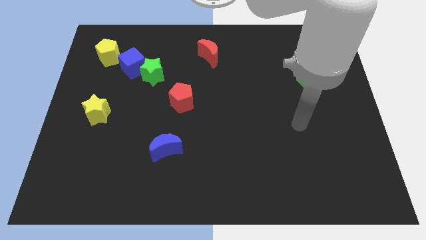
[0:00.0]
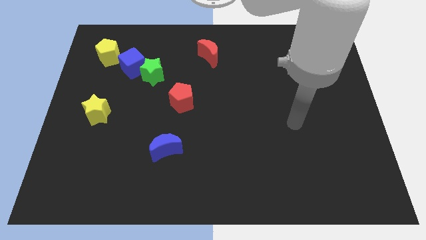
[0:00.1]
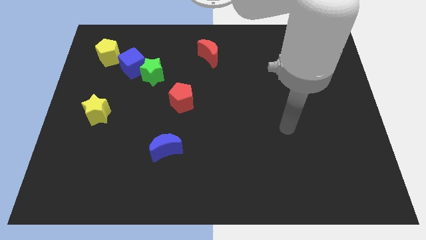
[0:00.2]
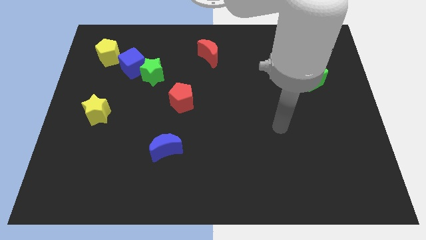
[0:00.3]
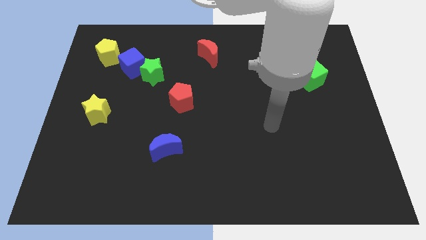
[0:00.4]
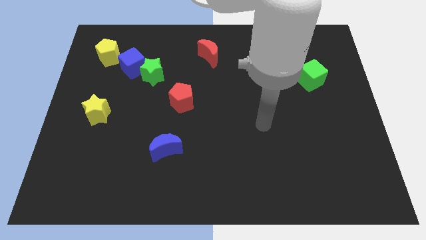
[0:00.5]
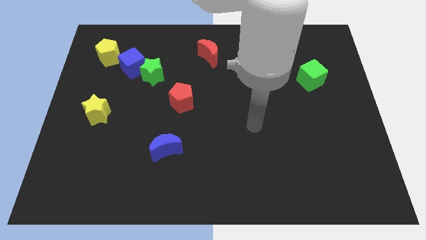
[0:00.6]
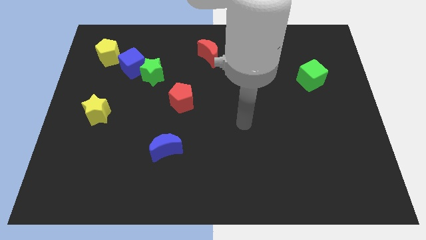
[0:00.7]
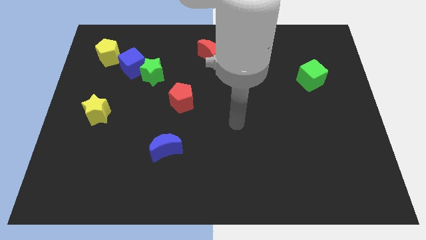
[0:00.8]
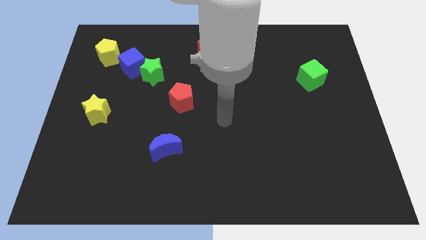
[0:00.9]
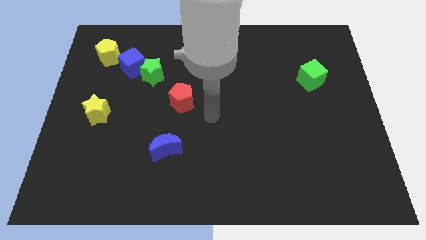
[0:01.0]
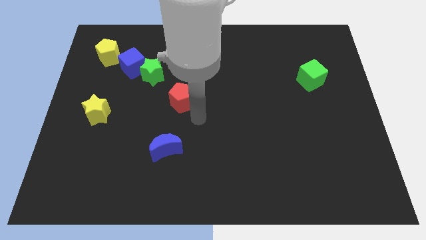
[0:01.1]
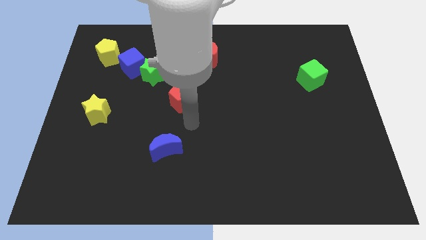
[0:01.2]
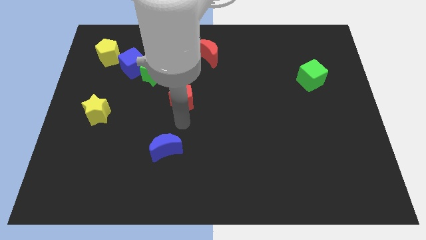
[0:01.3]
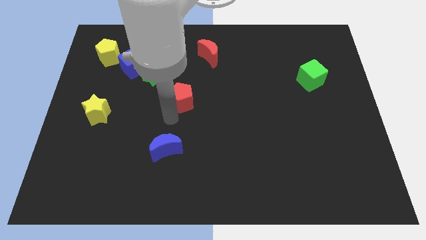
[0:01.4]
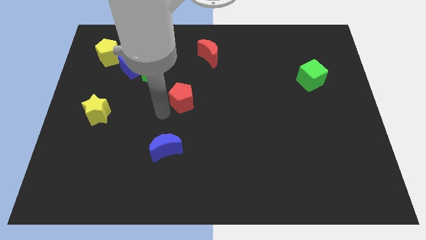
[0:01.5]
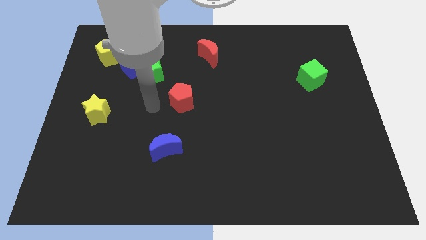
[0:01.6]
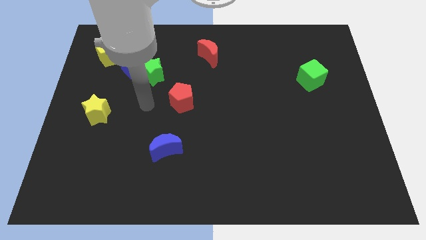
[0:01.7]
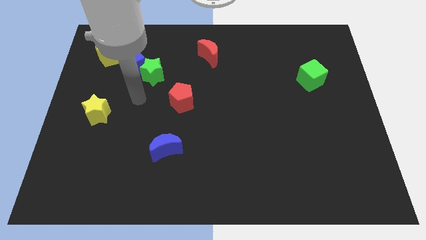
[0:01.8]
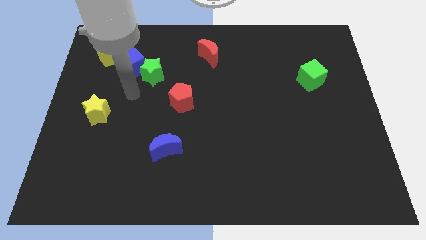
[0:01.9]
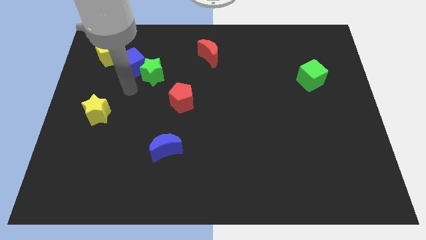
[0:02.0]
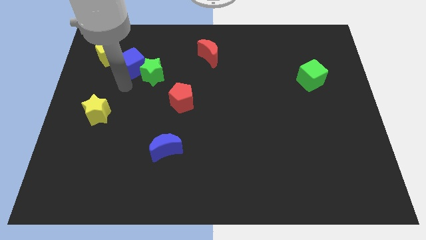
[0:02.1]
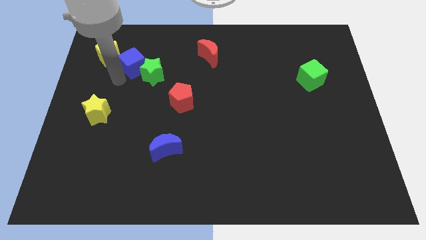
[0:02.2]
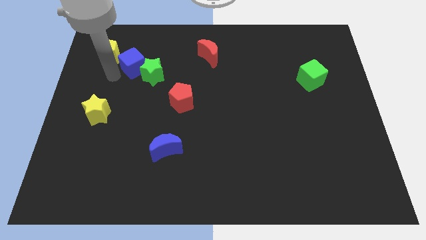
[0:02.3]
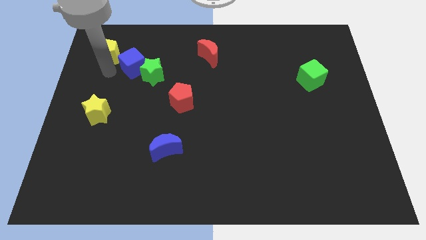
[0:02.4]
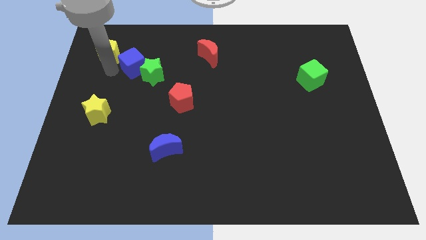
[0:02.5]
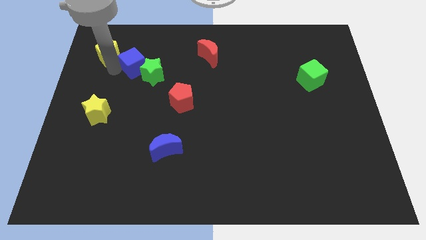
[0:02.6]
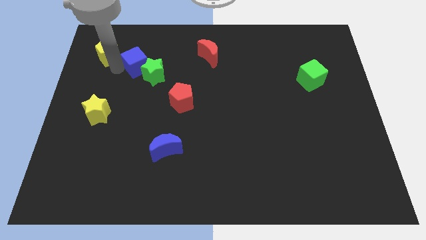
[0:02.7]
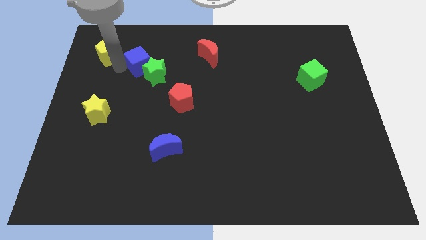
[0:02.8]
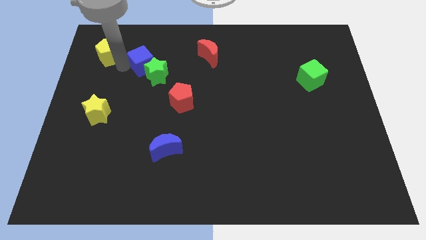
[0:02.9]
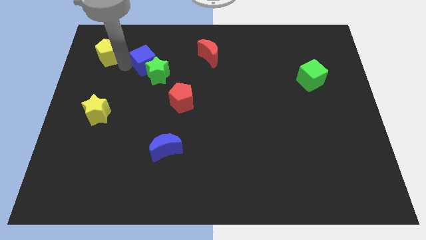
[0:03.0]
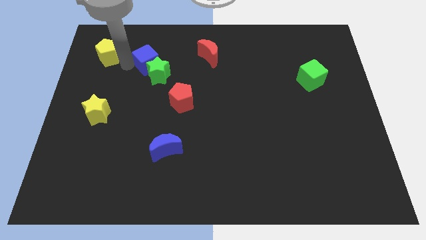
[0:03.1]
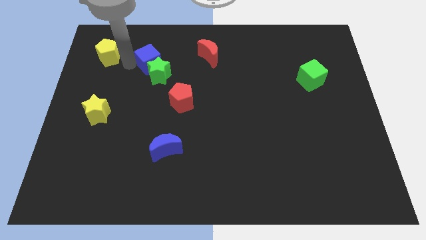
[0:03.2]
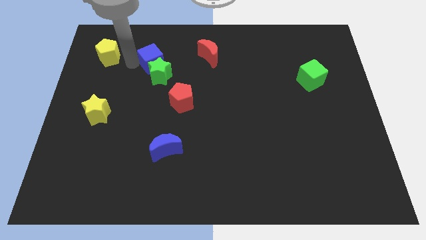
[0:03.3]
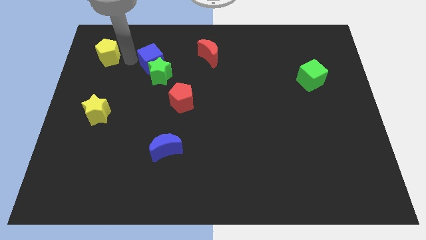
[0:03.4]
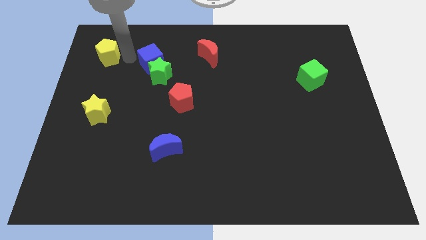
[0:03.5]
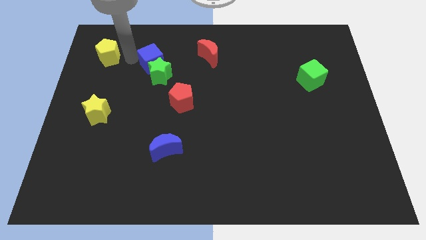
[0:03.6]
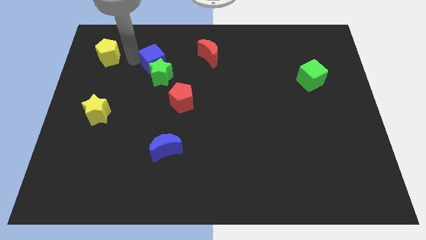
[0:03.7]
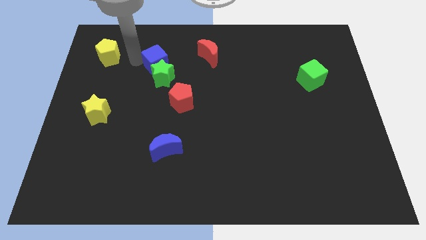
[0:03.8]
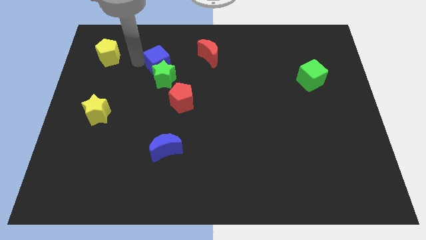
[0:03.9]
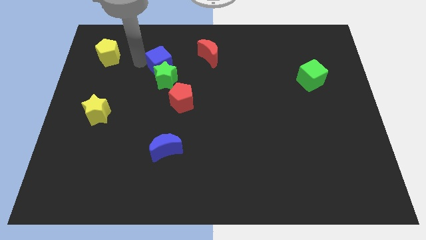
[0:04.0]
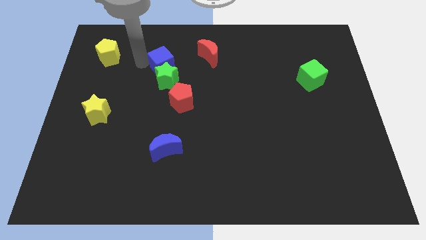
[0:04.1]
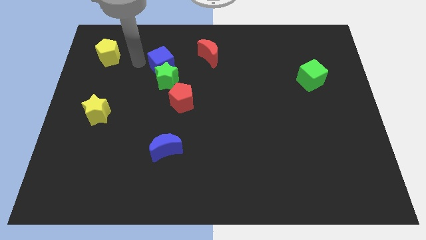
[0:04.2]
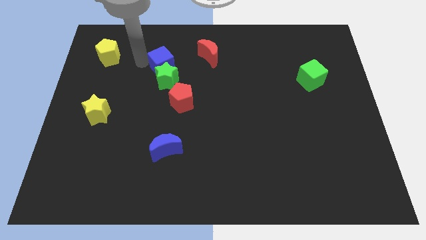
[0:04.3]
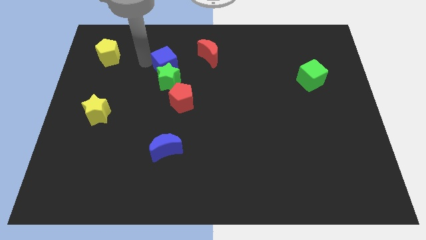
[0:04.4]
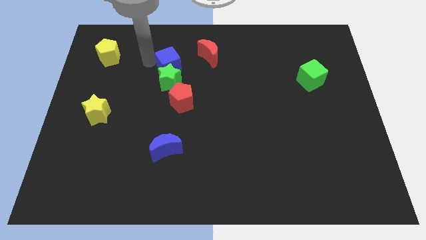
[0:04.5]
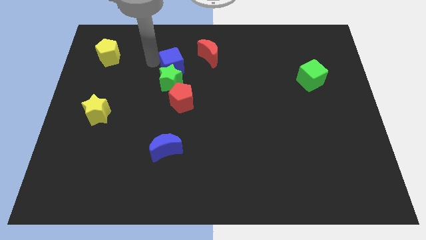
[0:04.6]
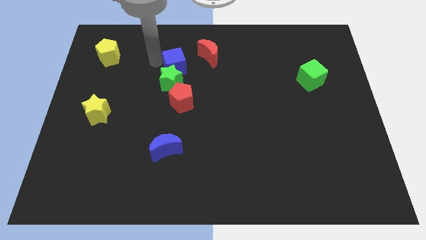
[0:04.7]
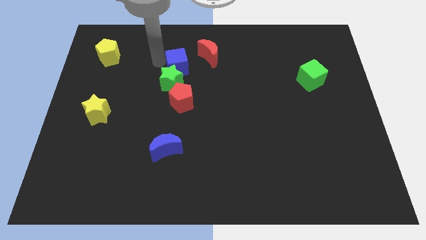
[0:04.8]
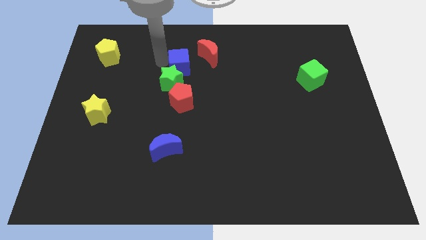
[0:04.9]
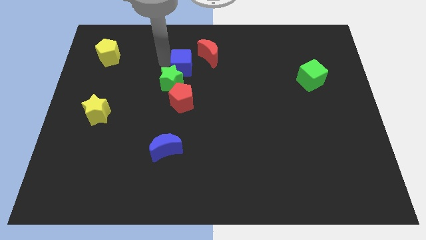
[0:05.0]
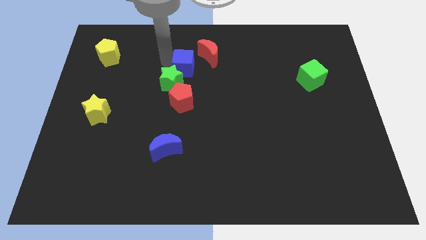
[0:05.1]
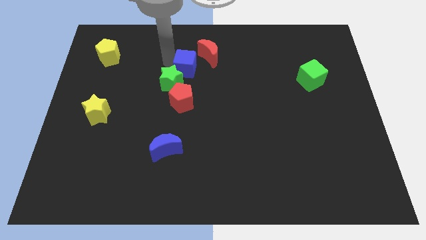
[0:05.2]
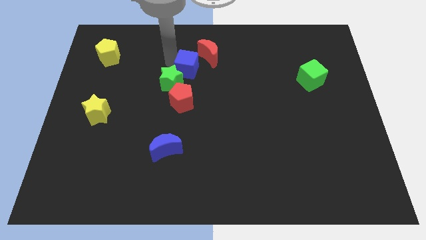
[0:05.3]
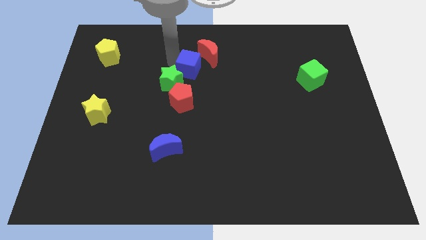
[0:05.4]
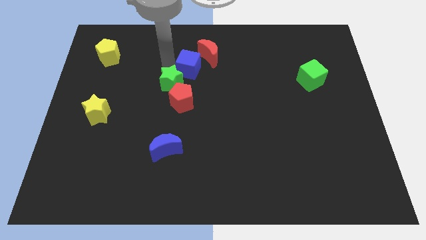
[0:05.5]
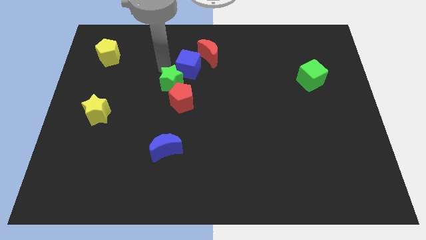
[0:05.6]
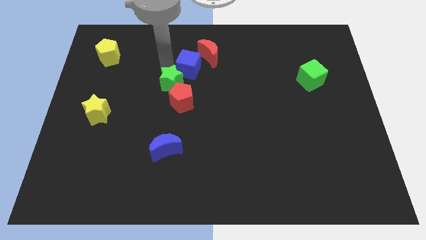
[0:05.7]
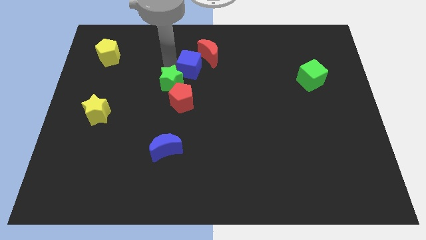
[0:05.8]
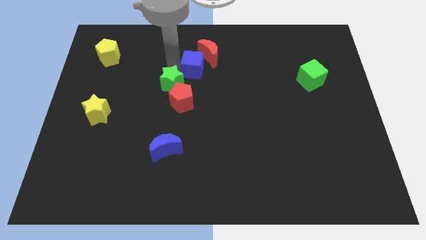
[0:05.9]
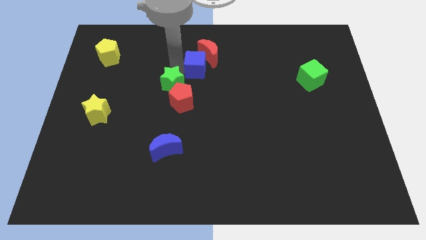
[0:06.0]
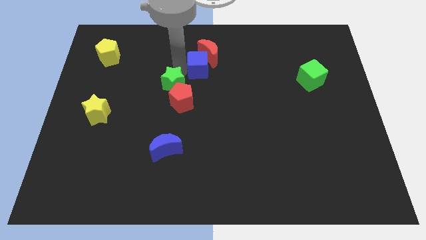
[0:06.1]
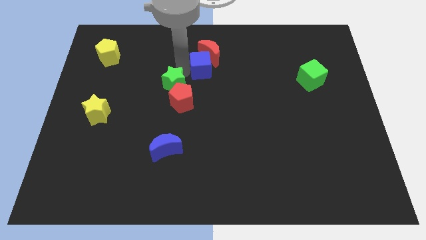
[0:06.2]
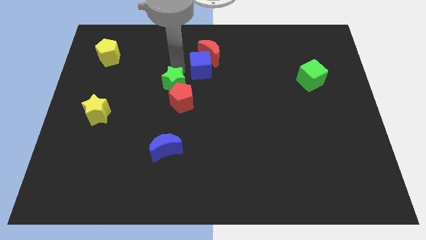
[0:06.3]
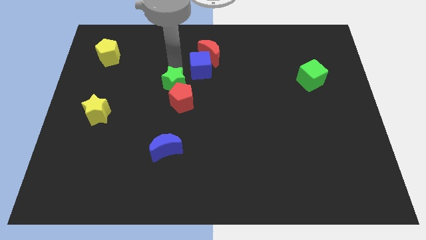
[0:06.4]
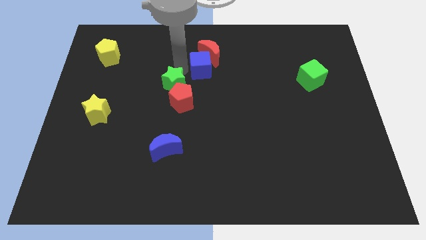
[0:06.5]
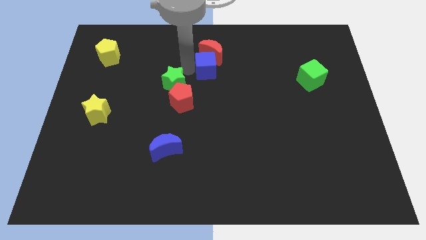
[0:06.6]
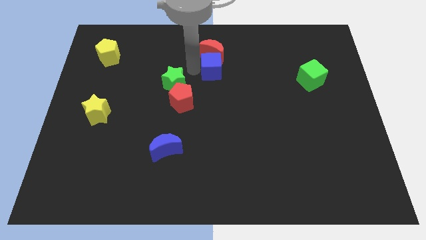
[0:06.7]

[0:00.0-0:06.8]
slide the blue cube right

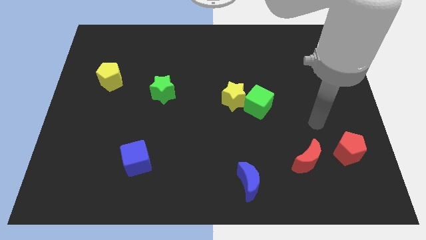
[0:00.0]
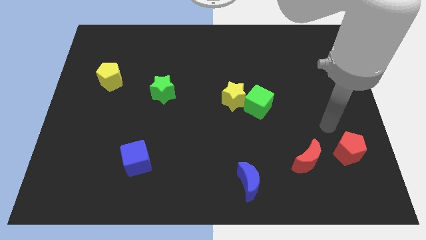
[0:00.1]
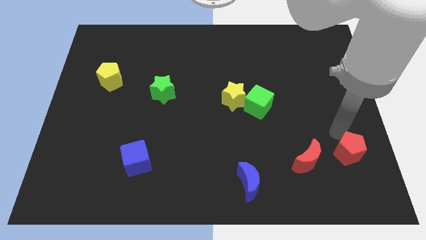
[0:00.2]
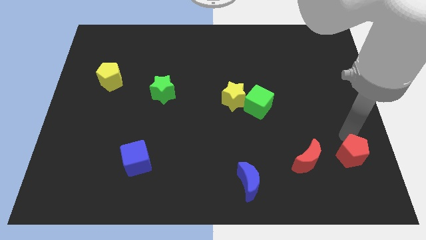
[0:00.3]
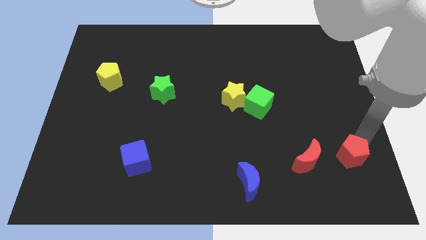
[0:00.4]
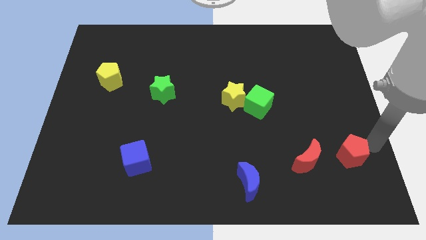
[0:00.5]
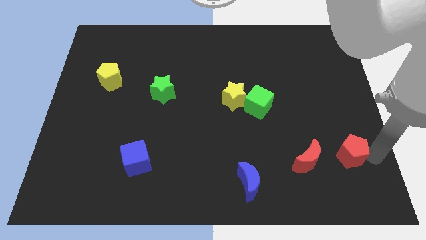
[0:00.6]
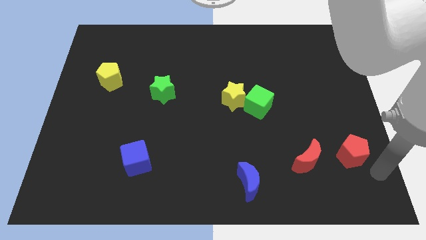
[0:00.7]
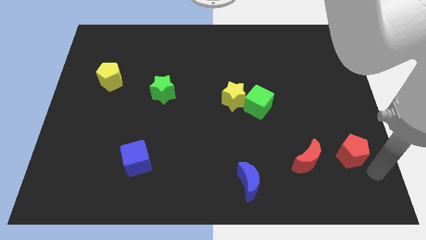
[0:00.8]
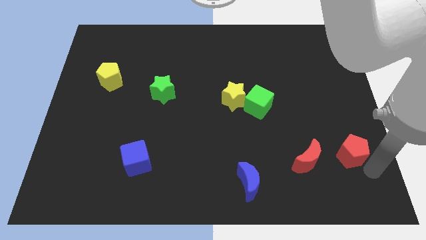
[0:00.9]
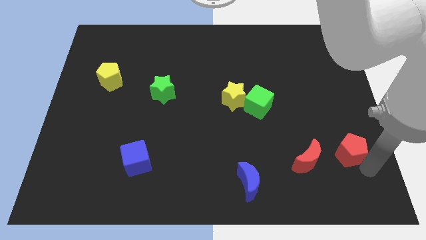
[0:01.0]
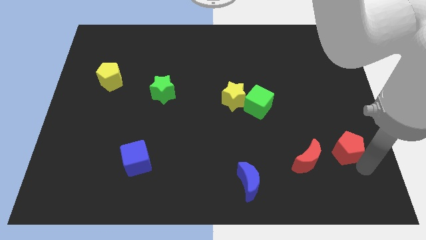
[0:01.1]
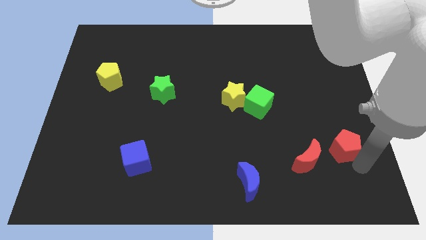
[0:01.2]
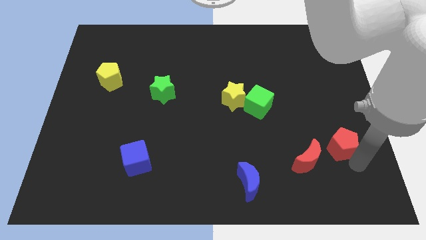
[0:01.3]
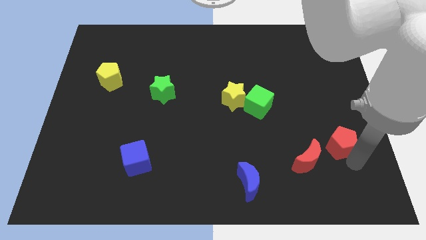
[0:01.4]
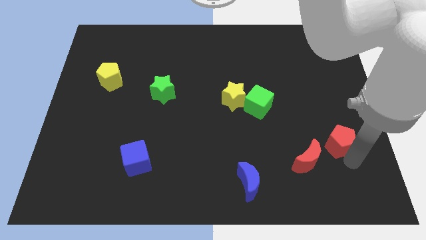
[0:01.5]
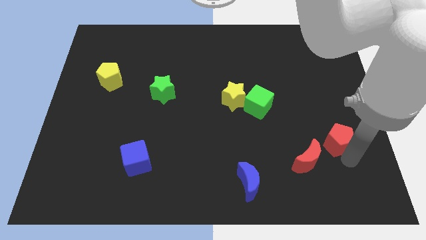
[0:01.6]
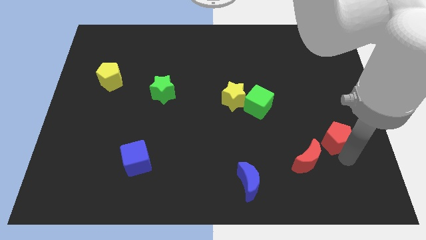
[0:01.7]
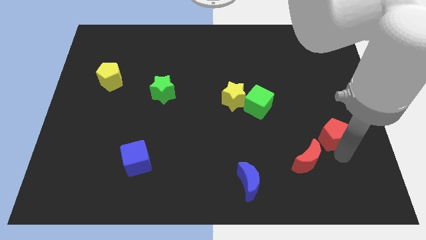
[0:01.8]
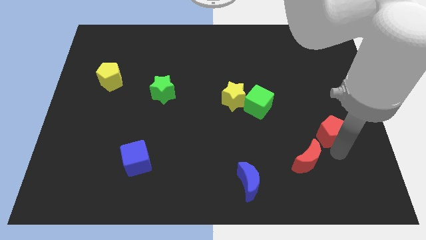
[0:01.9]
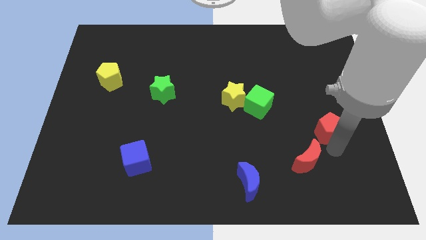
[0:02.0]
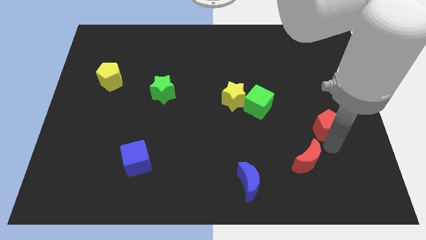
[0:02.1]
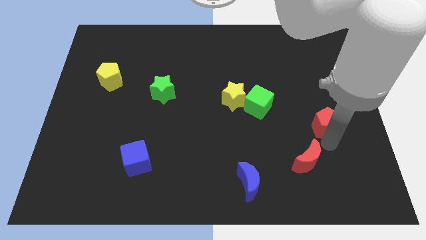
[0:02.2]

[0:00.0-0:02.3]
push the red pentagon somewhat upwards and then to the left
